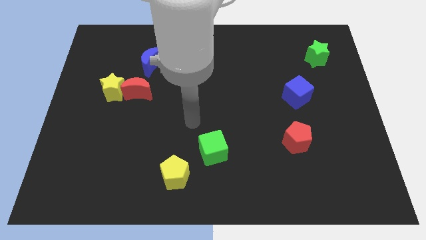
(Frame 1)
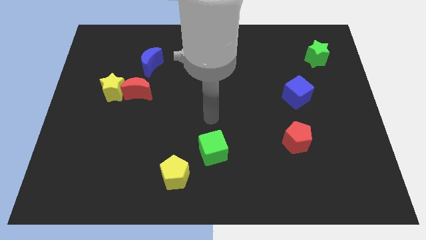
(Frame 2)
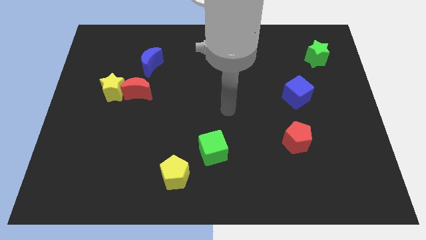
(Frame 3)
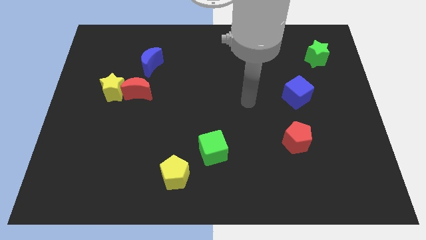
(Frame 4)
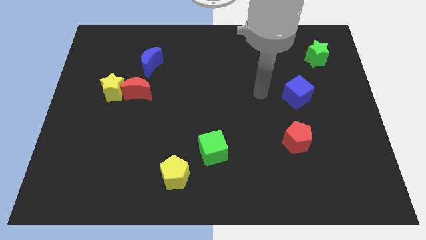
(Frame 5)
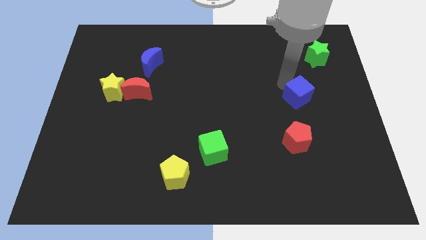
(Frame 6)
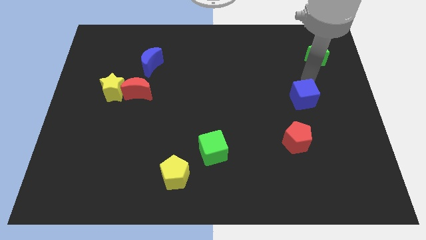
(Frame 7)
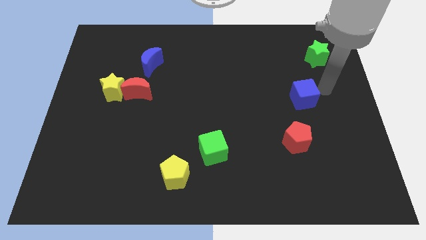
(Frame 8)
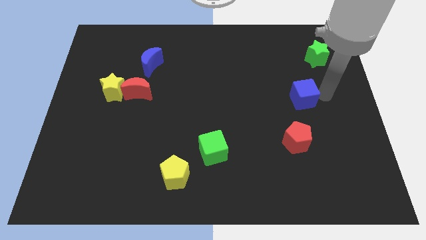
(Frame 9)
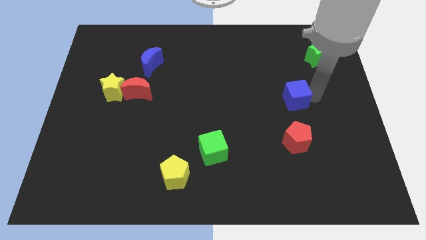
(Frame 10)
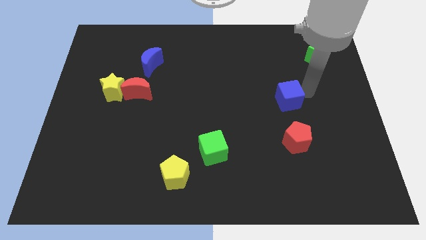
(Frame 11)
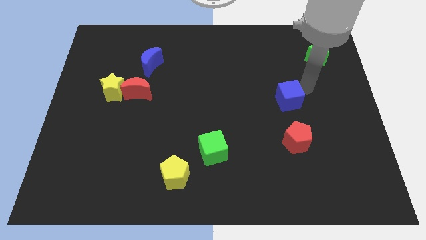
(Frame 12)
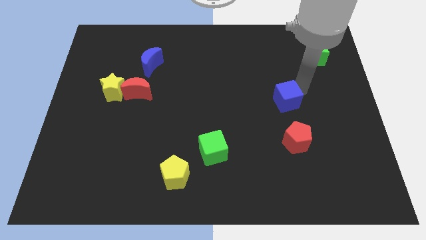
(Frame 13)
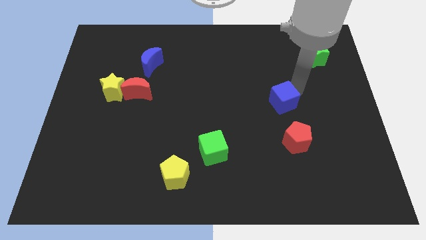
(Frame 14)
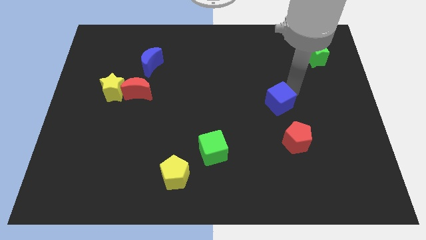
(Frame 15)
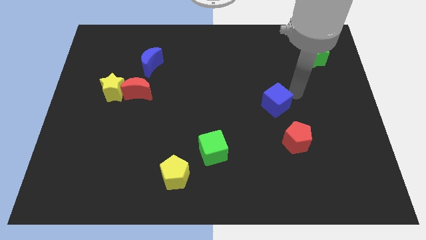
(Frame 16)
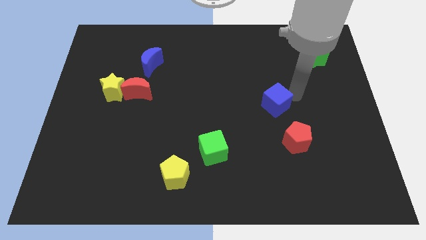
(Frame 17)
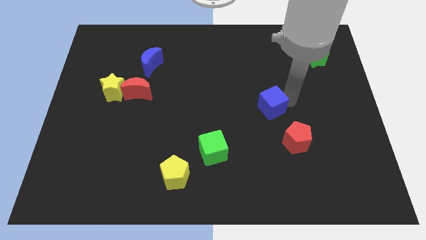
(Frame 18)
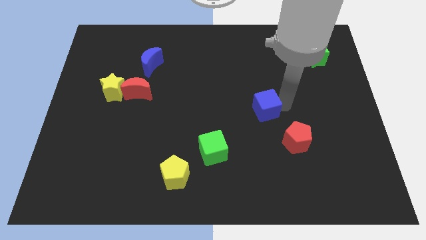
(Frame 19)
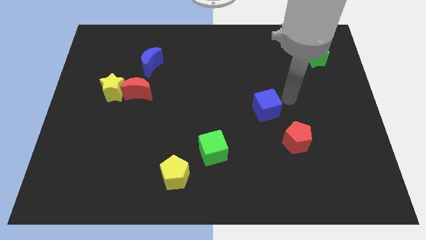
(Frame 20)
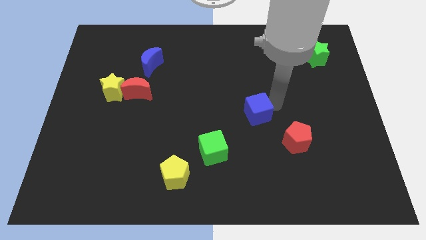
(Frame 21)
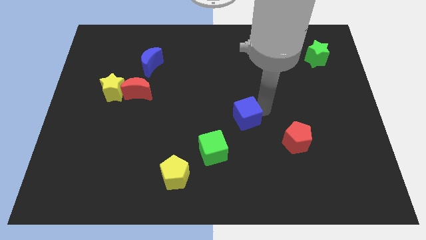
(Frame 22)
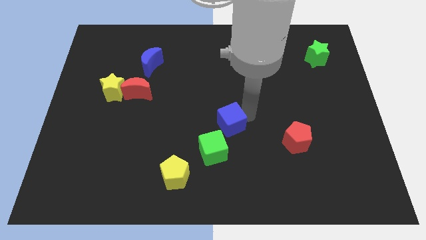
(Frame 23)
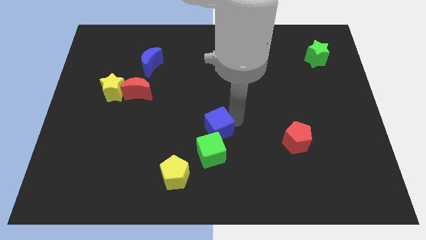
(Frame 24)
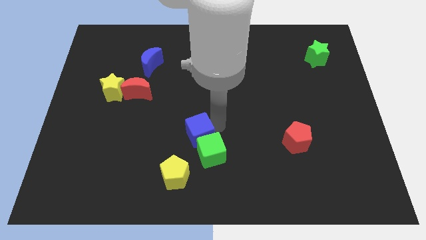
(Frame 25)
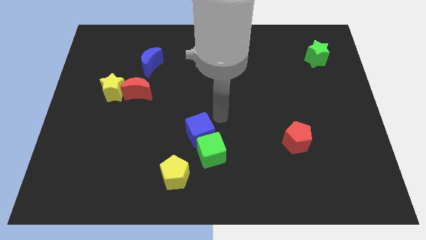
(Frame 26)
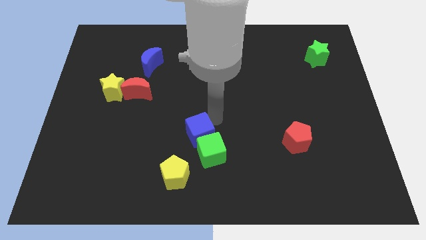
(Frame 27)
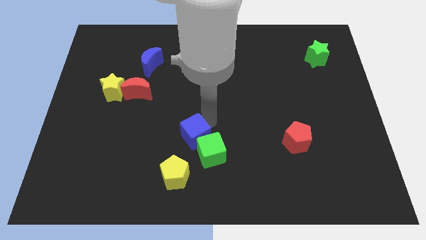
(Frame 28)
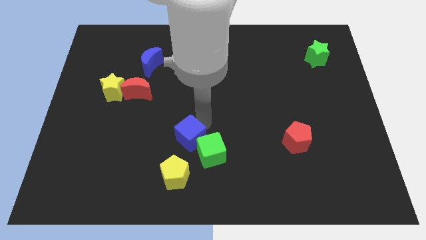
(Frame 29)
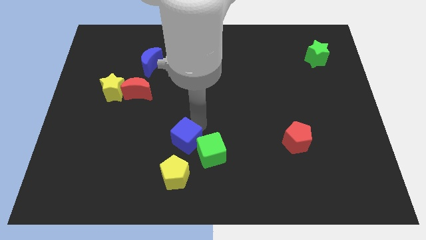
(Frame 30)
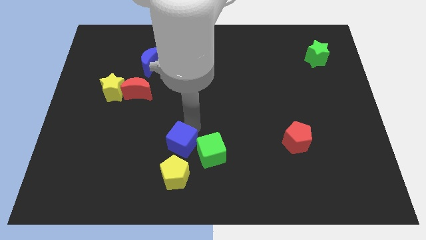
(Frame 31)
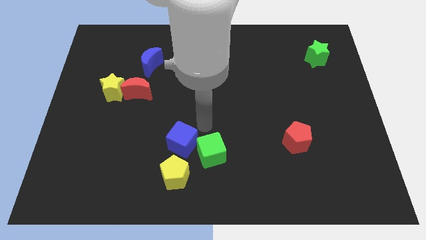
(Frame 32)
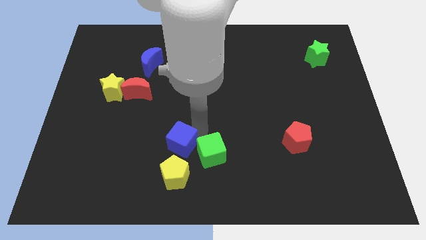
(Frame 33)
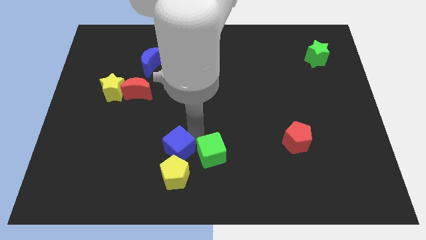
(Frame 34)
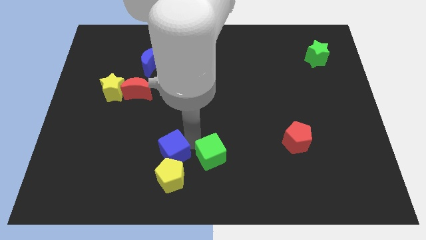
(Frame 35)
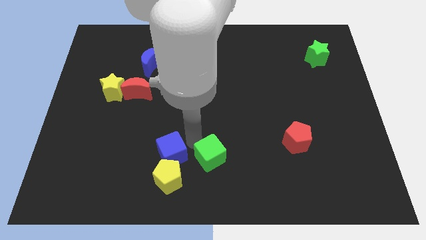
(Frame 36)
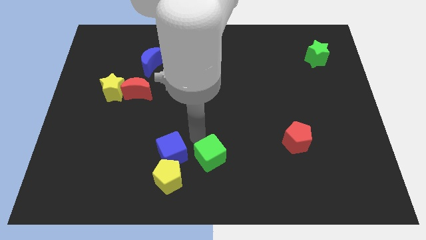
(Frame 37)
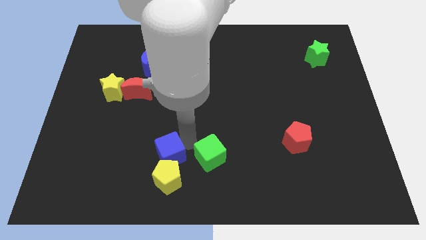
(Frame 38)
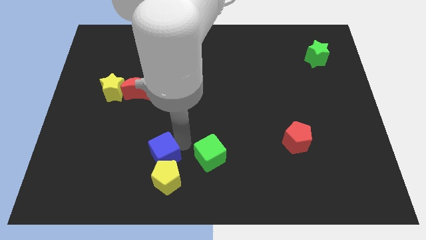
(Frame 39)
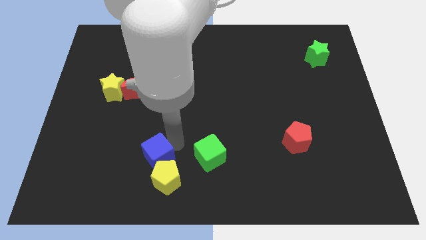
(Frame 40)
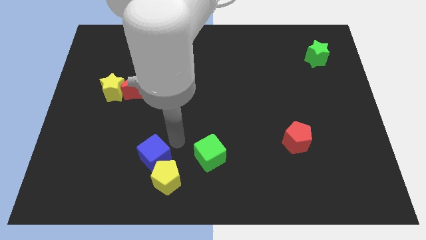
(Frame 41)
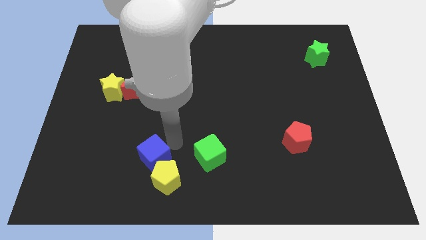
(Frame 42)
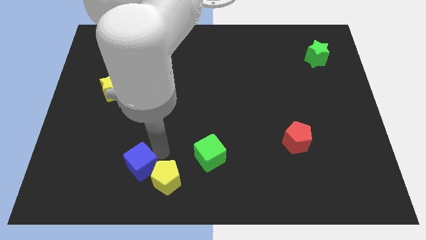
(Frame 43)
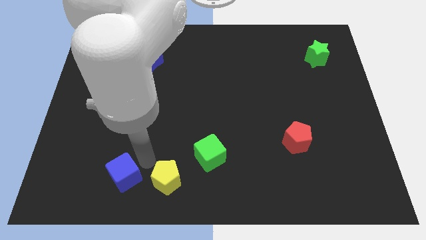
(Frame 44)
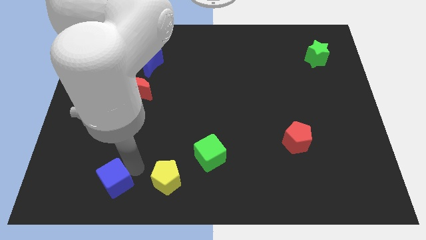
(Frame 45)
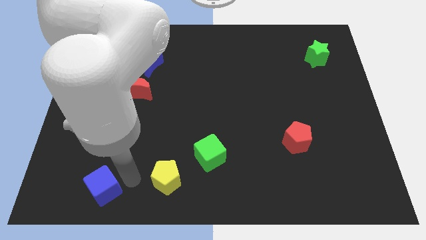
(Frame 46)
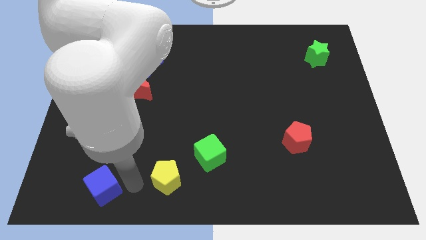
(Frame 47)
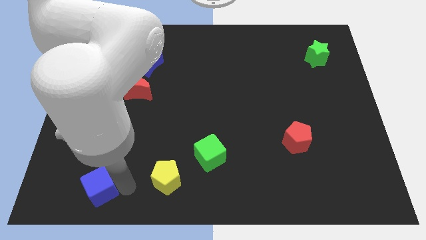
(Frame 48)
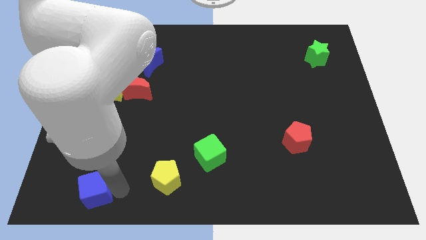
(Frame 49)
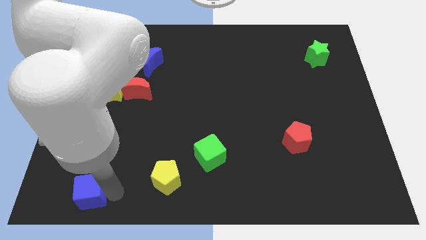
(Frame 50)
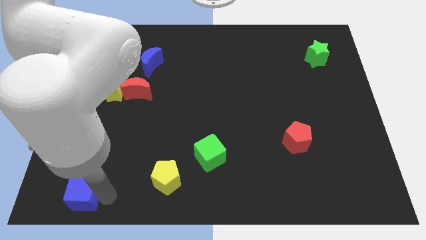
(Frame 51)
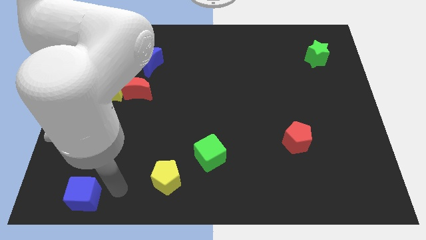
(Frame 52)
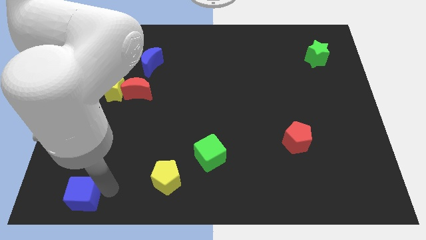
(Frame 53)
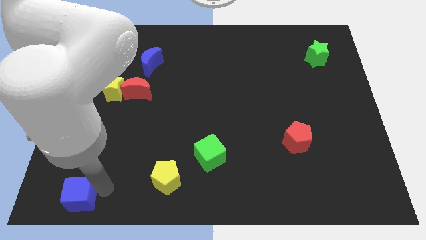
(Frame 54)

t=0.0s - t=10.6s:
slide the blue cube to the bottom left corner

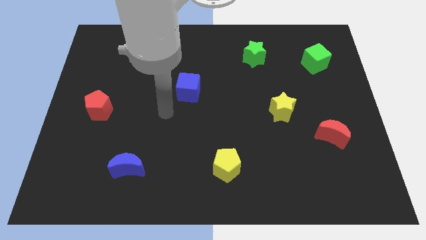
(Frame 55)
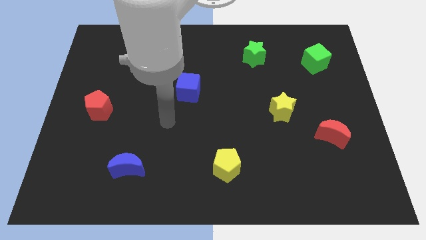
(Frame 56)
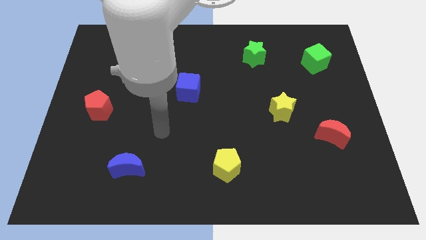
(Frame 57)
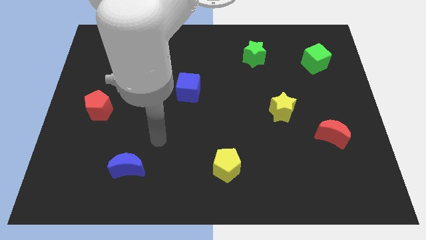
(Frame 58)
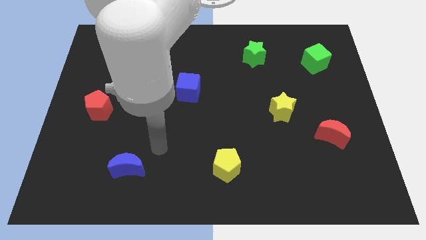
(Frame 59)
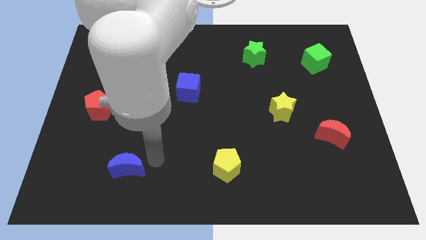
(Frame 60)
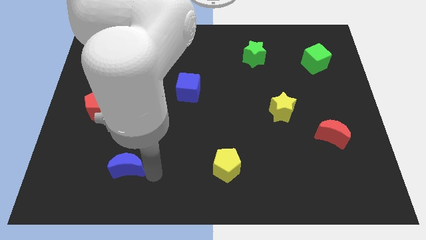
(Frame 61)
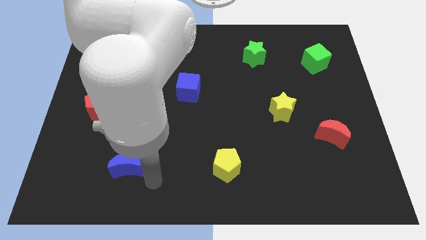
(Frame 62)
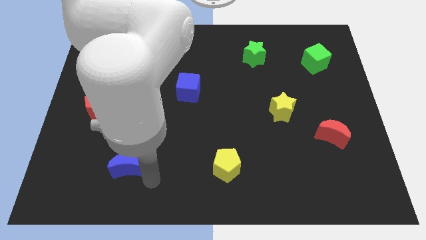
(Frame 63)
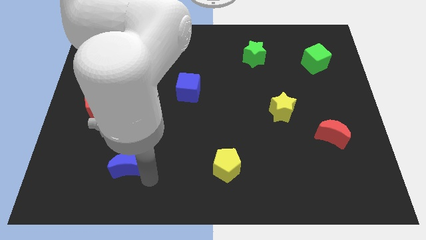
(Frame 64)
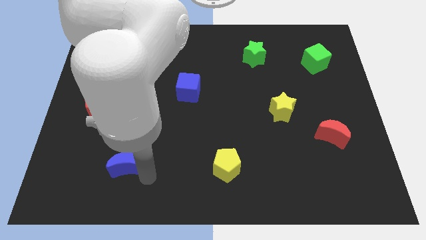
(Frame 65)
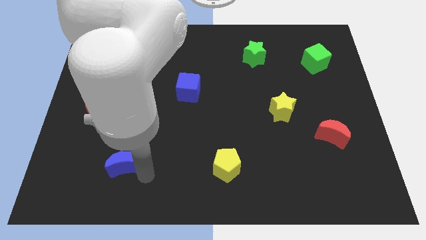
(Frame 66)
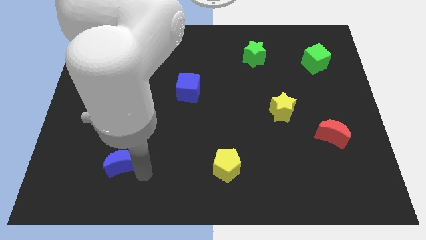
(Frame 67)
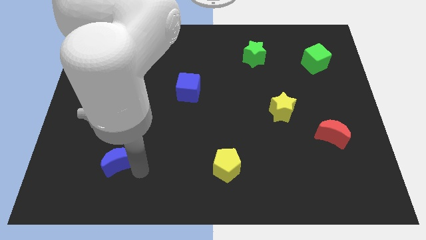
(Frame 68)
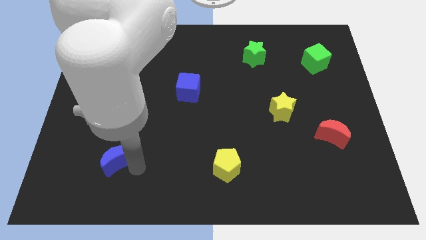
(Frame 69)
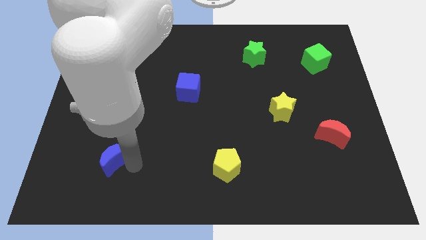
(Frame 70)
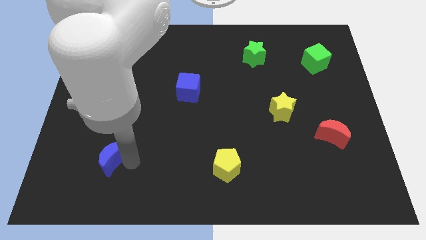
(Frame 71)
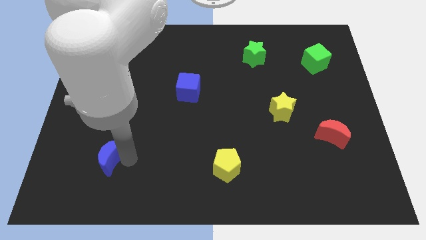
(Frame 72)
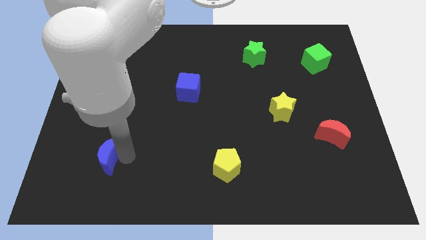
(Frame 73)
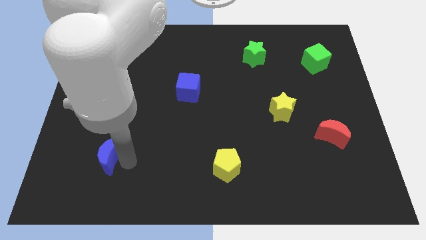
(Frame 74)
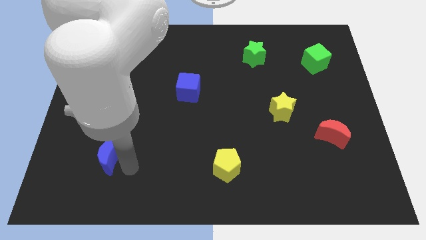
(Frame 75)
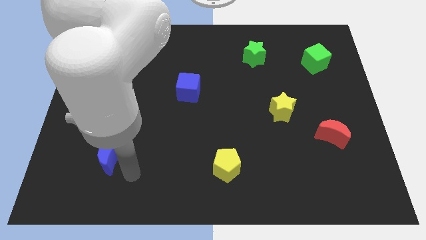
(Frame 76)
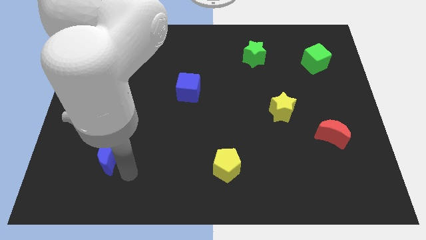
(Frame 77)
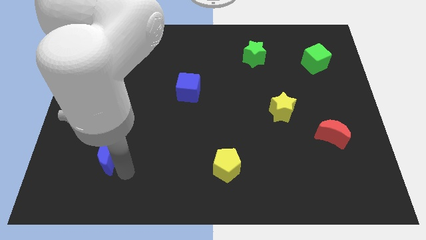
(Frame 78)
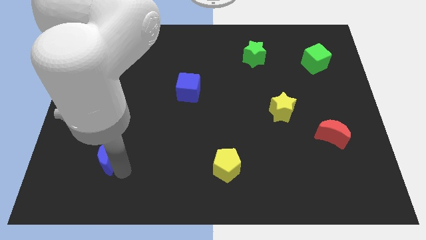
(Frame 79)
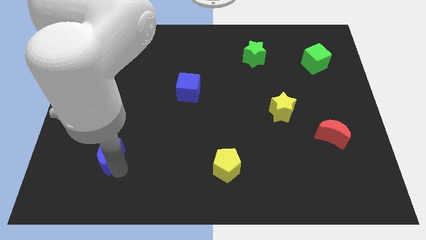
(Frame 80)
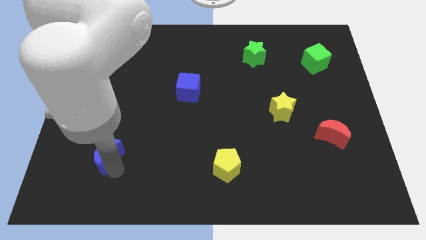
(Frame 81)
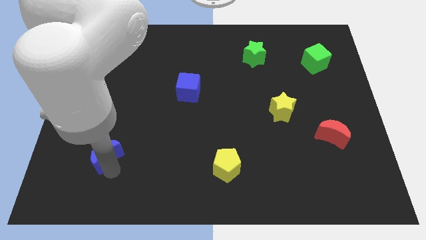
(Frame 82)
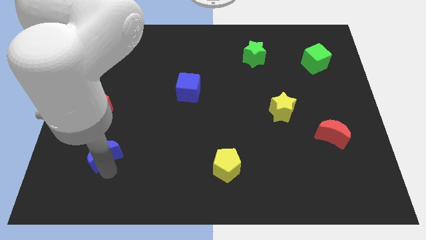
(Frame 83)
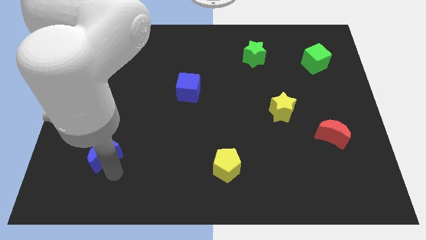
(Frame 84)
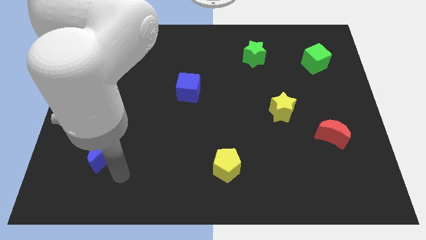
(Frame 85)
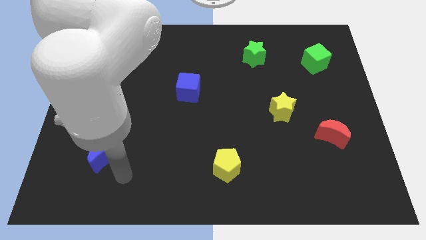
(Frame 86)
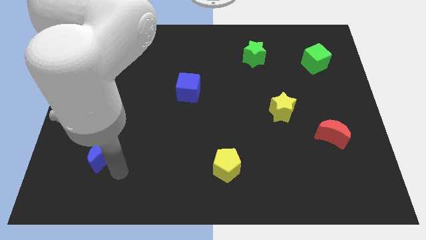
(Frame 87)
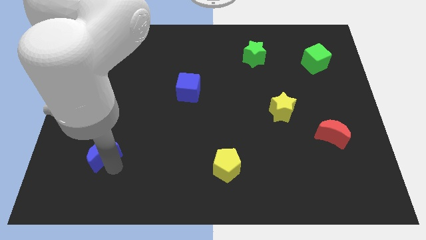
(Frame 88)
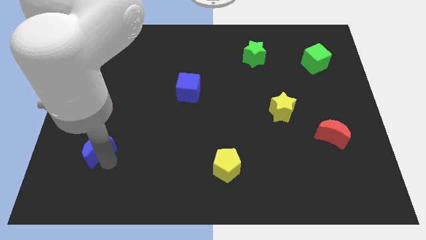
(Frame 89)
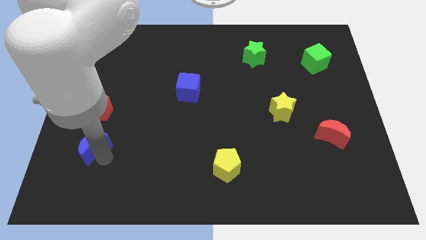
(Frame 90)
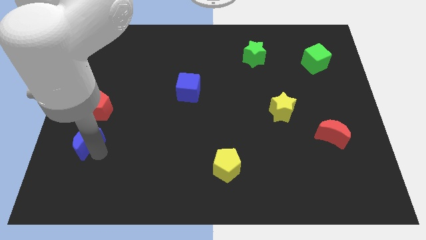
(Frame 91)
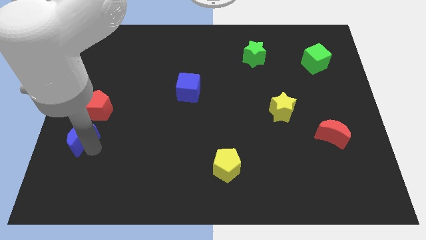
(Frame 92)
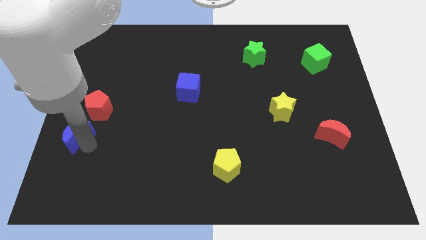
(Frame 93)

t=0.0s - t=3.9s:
push the blue moon to the left side of the board
